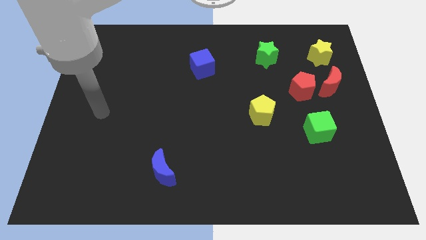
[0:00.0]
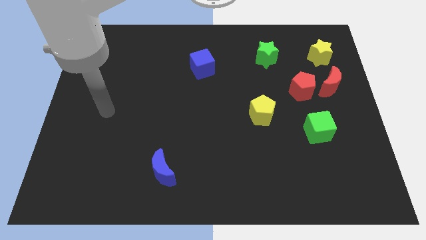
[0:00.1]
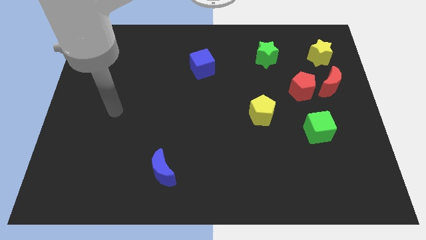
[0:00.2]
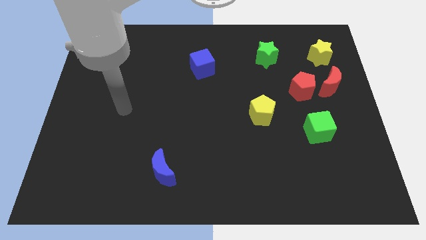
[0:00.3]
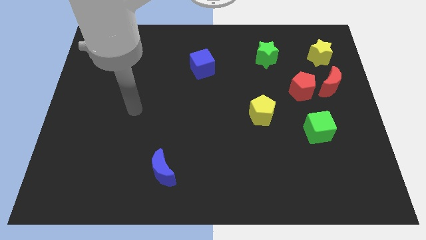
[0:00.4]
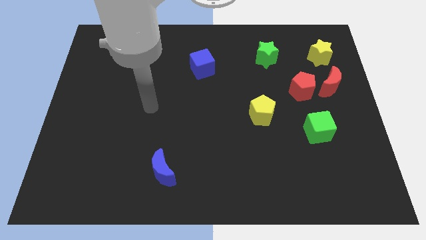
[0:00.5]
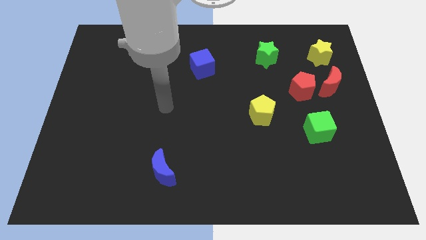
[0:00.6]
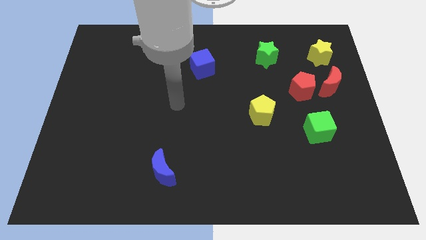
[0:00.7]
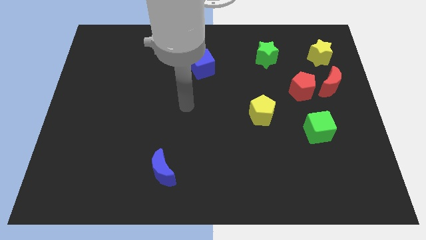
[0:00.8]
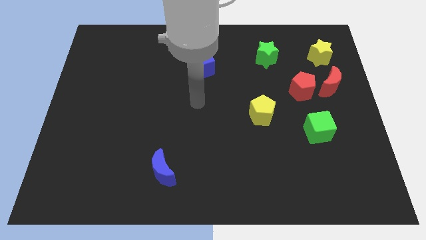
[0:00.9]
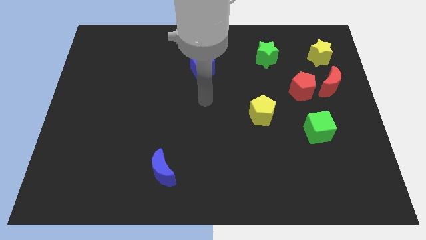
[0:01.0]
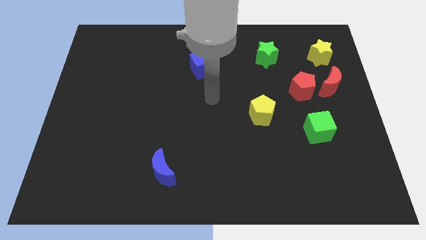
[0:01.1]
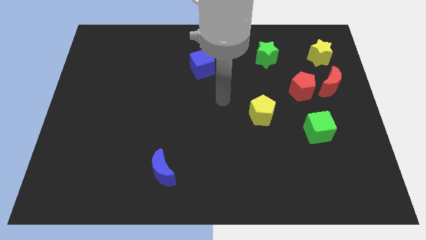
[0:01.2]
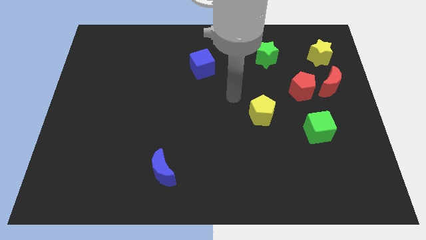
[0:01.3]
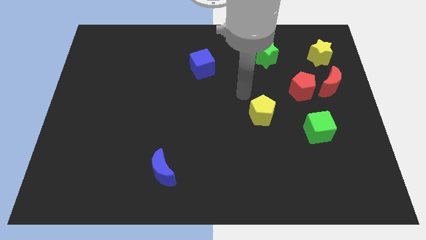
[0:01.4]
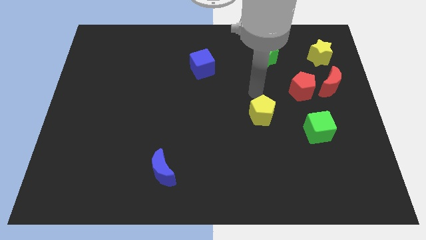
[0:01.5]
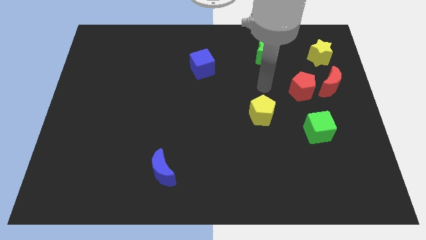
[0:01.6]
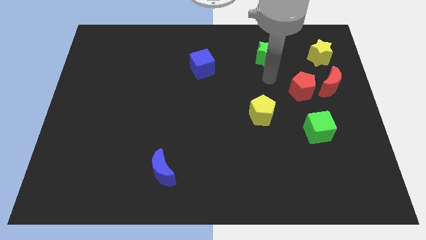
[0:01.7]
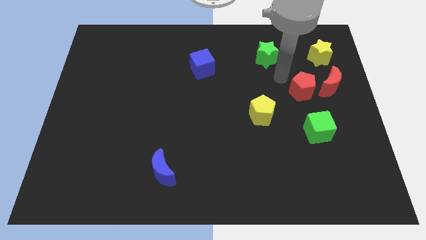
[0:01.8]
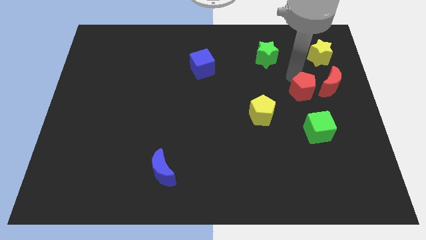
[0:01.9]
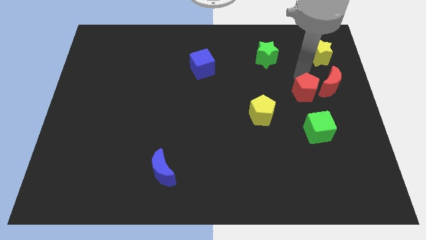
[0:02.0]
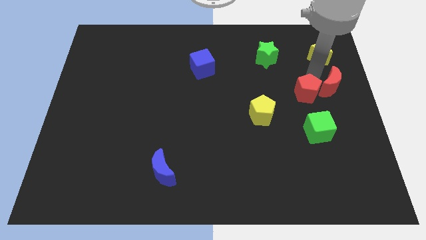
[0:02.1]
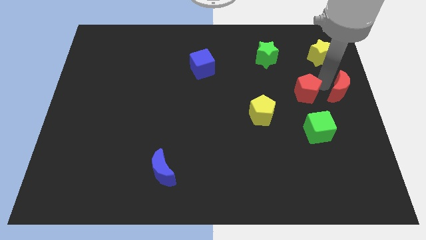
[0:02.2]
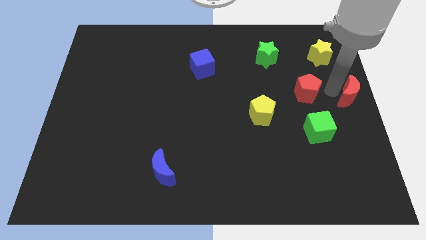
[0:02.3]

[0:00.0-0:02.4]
separate the red pentagon from the red moon

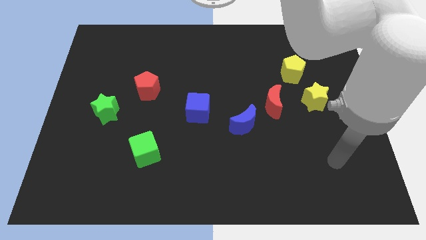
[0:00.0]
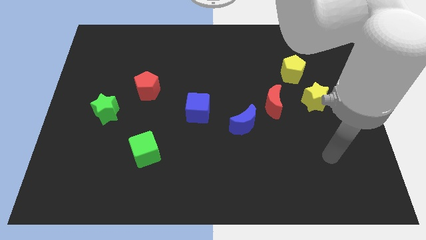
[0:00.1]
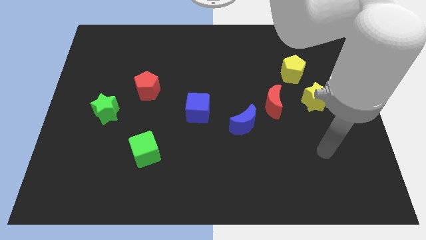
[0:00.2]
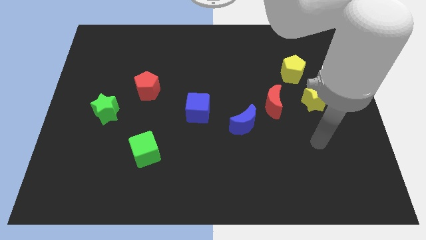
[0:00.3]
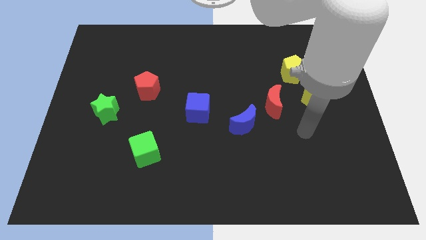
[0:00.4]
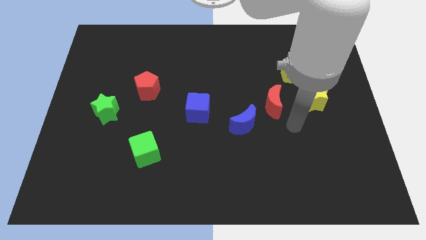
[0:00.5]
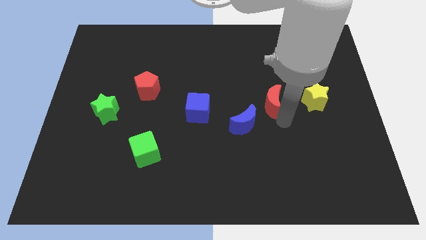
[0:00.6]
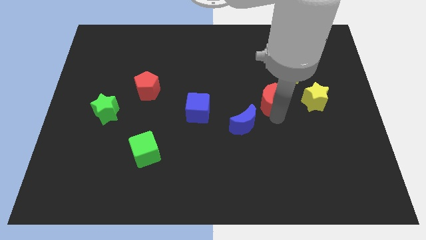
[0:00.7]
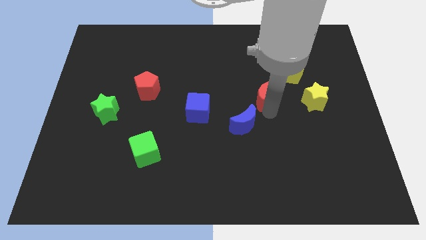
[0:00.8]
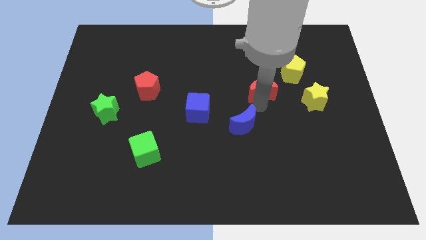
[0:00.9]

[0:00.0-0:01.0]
separate the blue moon from the red moon

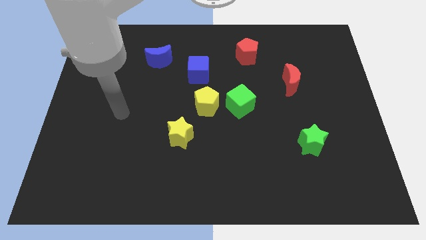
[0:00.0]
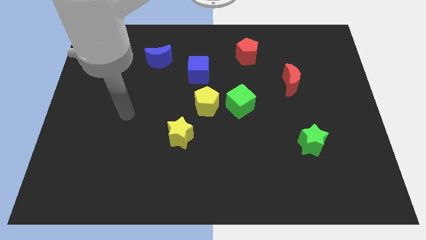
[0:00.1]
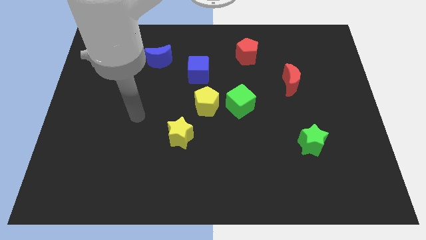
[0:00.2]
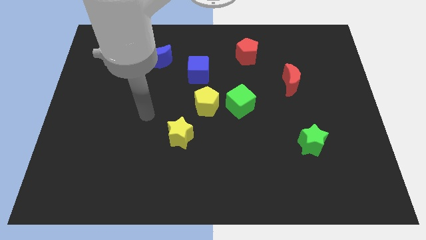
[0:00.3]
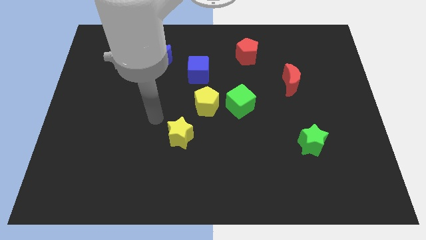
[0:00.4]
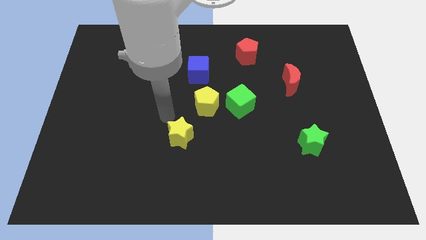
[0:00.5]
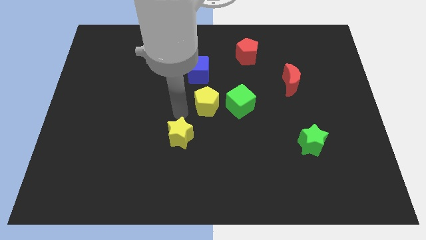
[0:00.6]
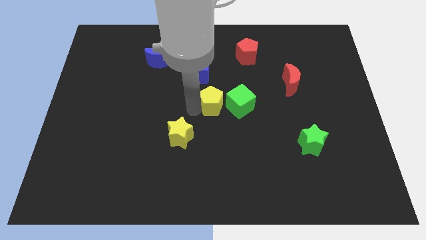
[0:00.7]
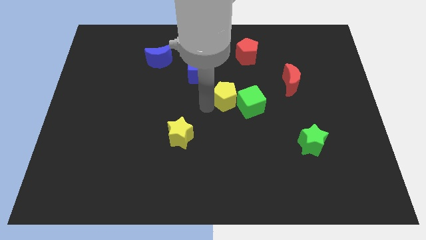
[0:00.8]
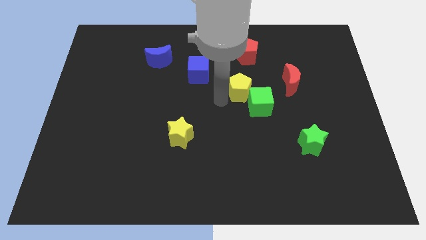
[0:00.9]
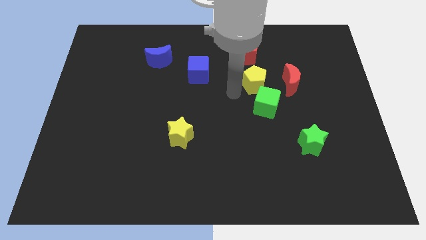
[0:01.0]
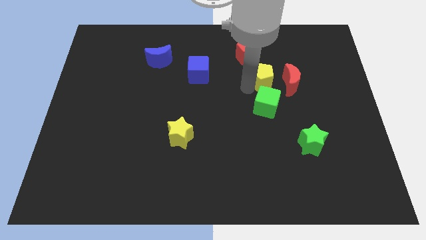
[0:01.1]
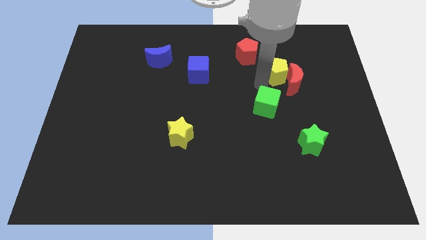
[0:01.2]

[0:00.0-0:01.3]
separate the green cube from the yellow pentagon

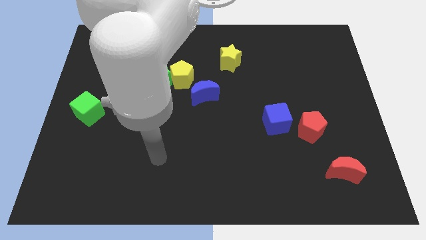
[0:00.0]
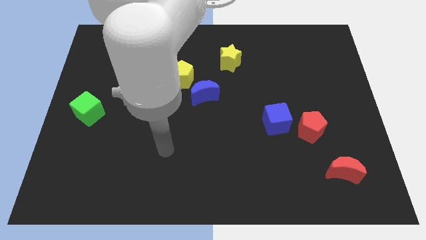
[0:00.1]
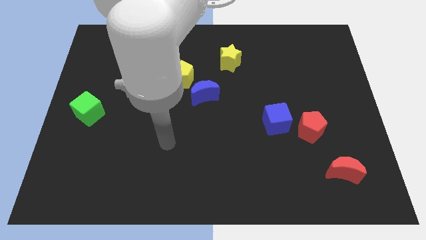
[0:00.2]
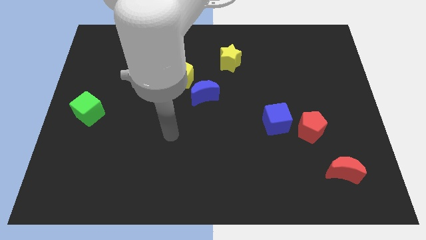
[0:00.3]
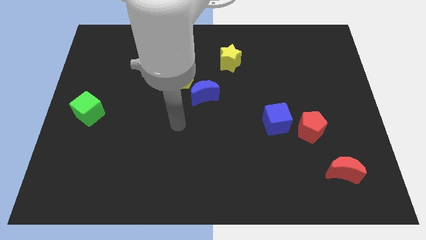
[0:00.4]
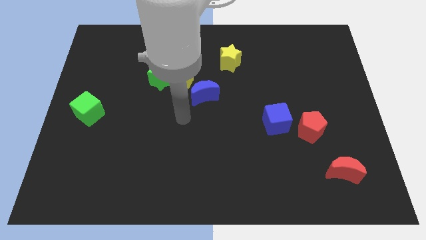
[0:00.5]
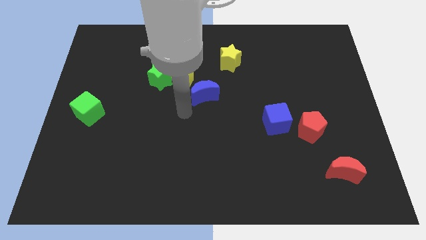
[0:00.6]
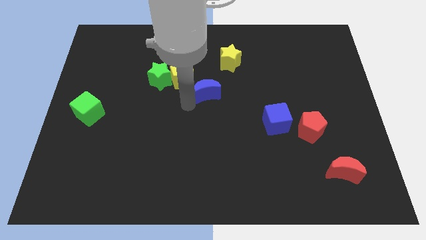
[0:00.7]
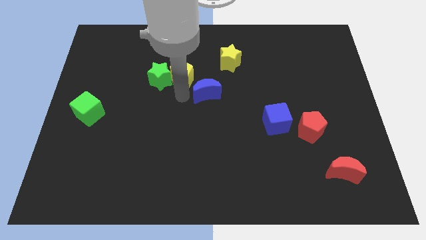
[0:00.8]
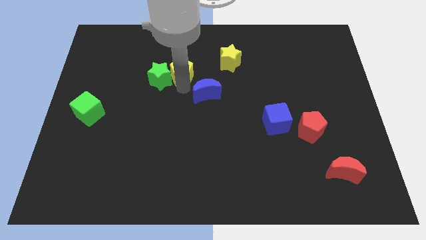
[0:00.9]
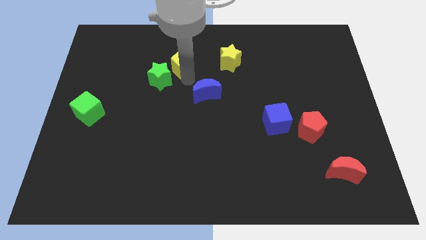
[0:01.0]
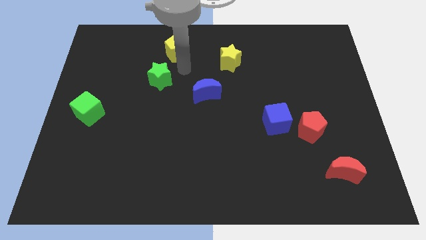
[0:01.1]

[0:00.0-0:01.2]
move the green star away from the yellow pentagon

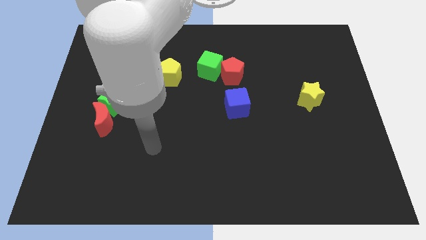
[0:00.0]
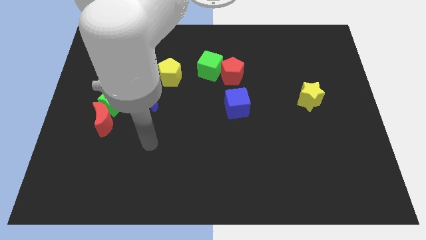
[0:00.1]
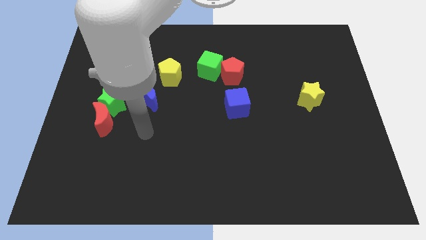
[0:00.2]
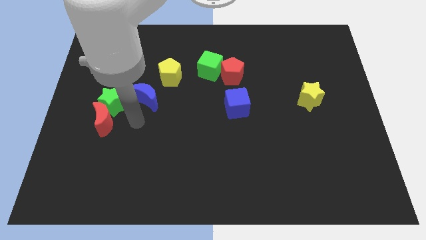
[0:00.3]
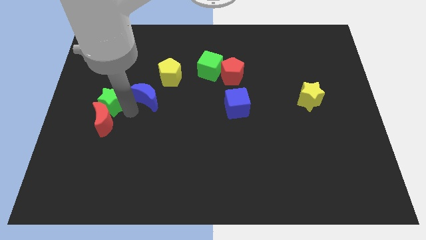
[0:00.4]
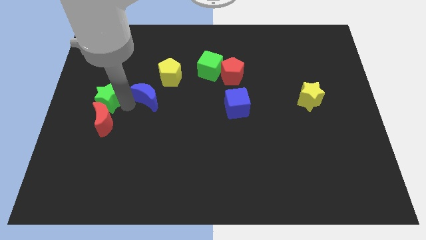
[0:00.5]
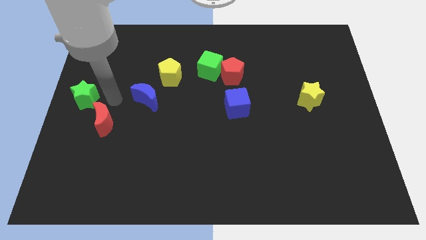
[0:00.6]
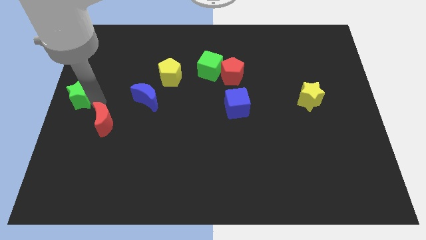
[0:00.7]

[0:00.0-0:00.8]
move the red moon away from the green star

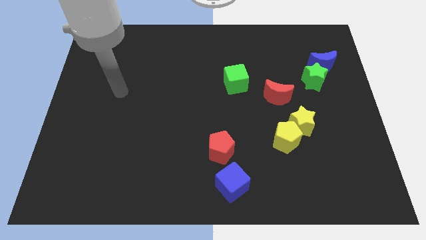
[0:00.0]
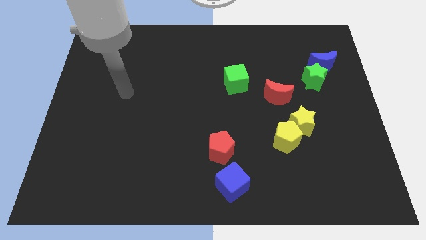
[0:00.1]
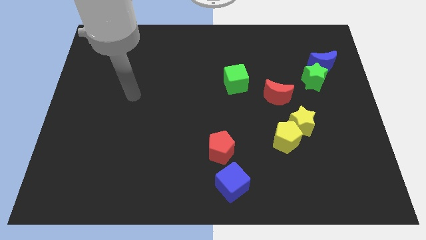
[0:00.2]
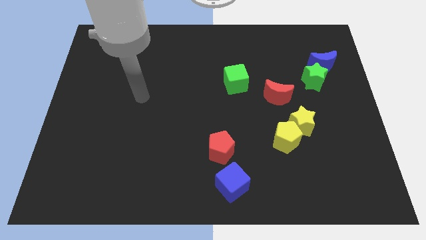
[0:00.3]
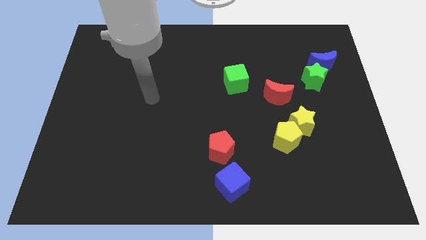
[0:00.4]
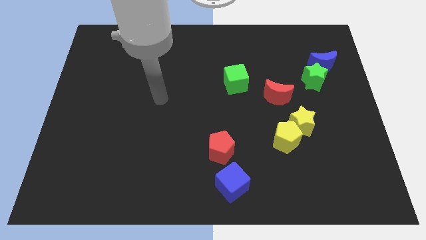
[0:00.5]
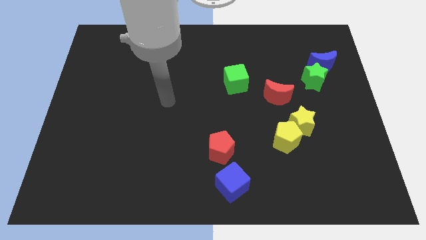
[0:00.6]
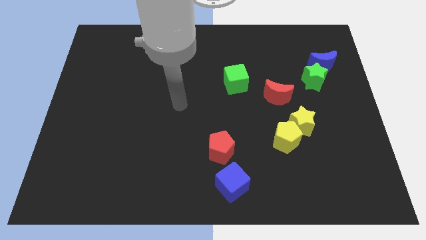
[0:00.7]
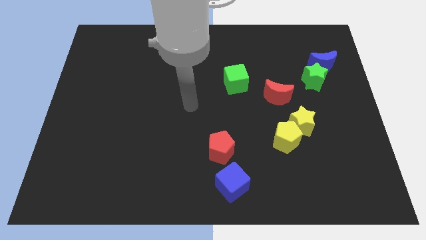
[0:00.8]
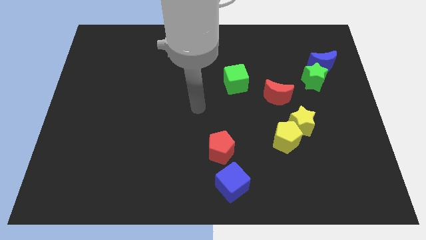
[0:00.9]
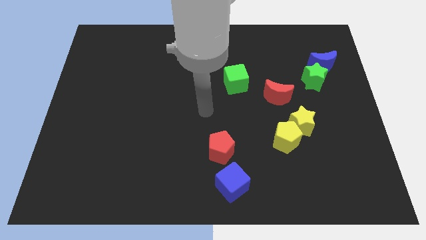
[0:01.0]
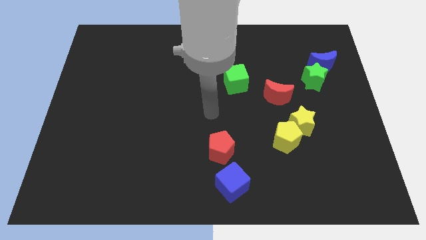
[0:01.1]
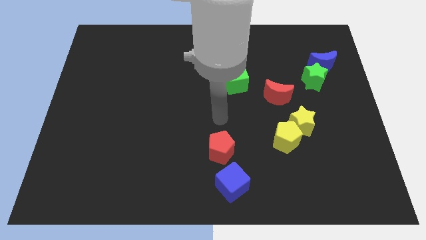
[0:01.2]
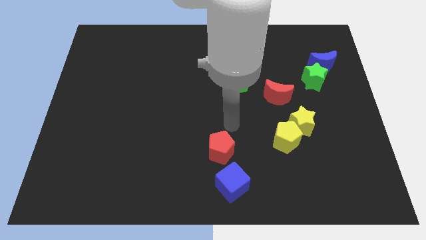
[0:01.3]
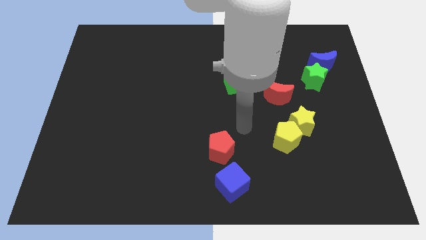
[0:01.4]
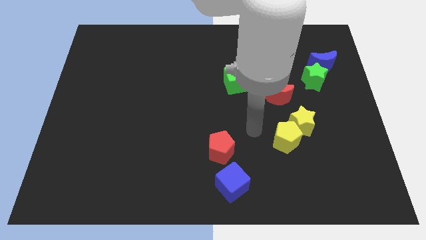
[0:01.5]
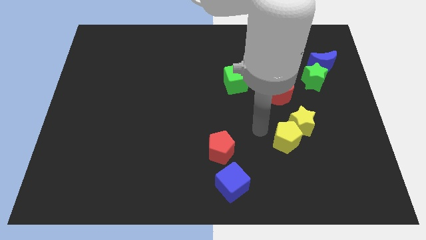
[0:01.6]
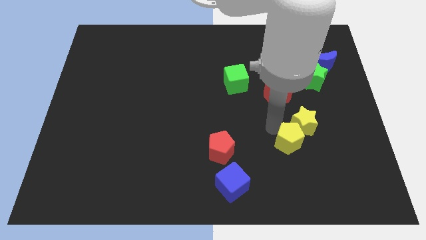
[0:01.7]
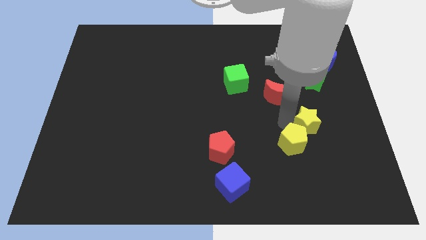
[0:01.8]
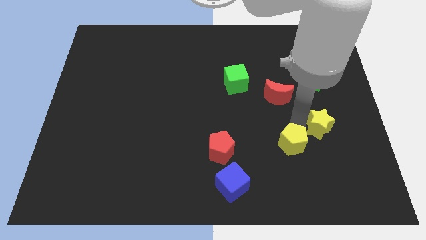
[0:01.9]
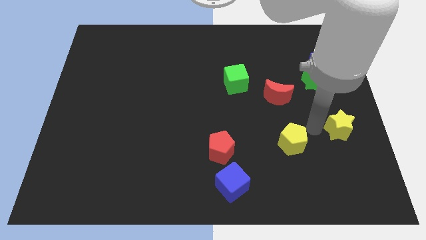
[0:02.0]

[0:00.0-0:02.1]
move the yellow pentagon away from the yellow star

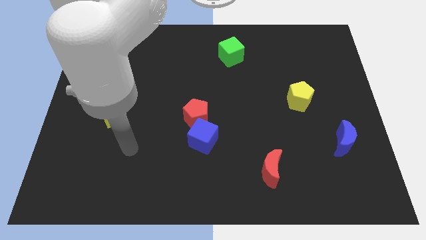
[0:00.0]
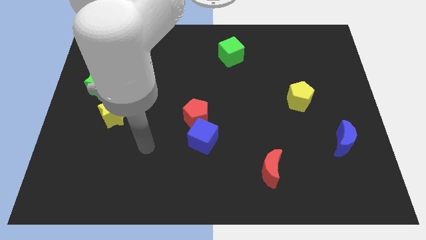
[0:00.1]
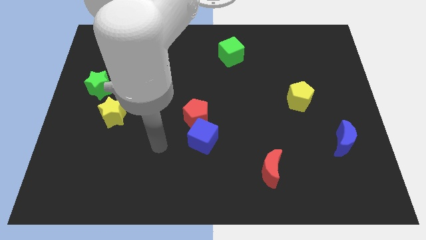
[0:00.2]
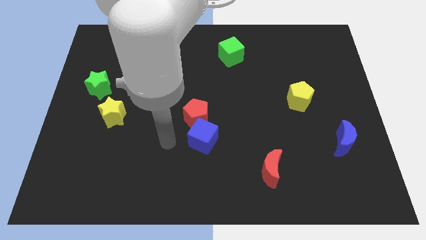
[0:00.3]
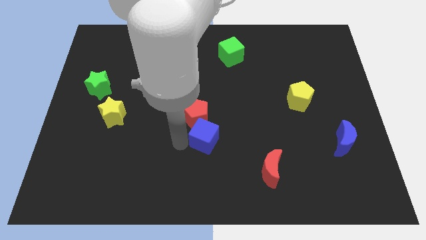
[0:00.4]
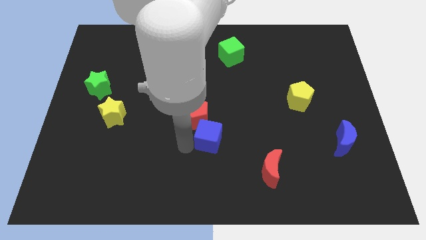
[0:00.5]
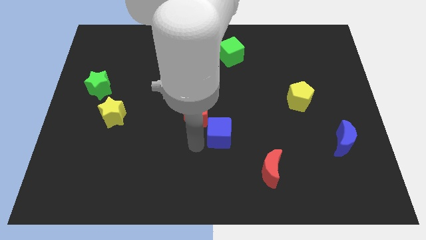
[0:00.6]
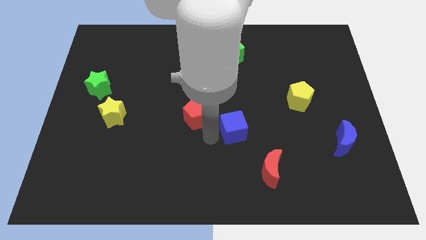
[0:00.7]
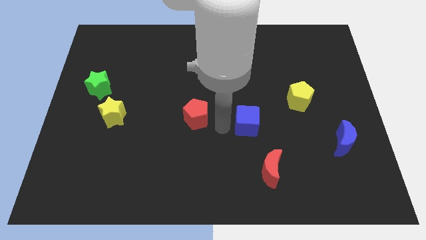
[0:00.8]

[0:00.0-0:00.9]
move the red pentagon away from the blue cube
